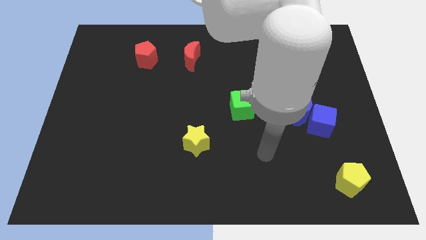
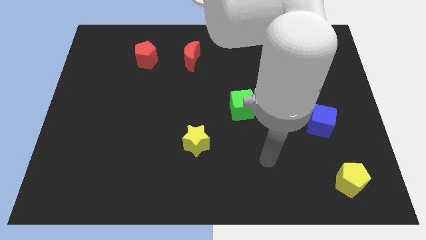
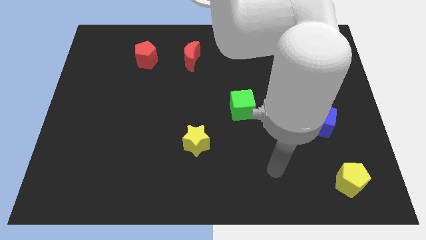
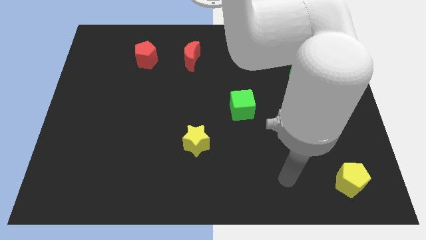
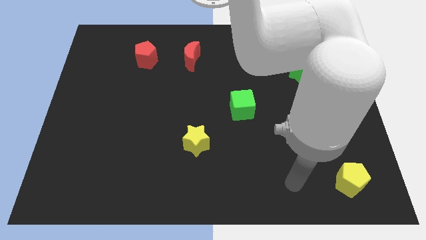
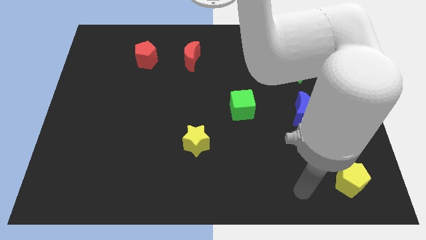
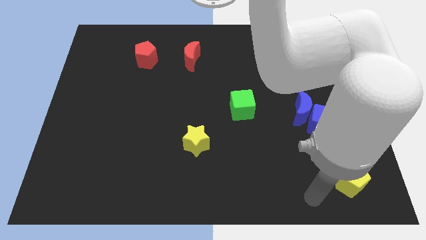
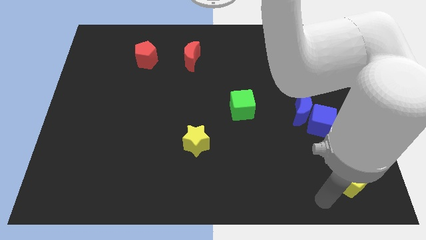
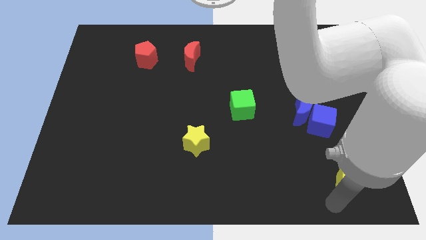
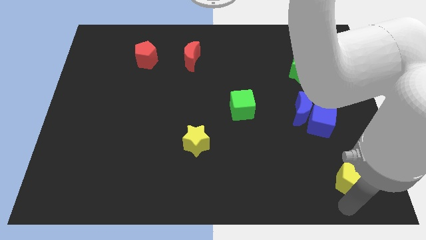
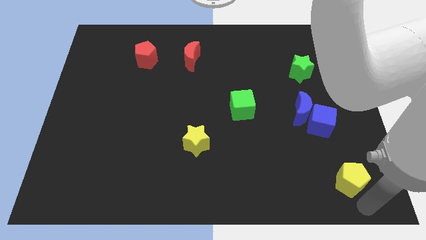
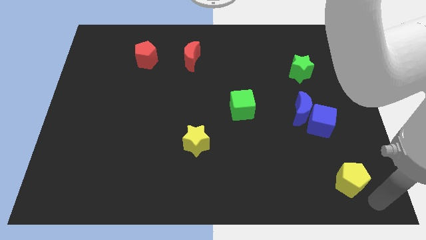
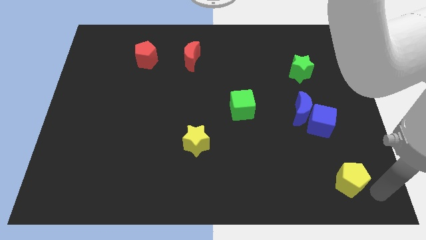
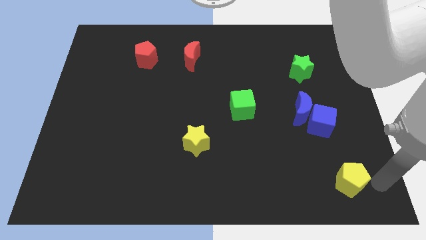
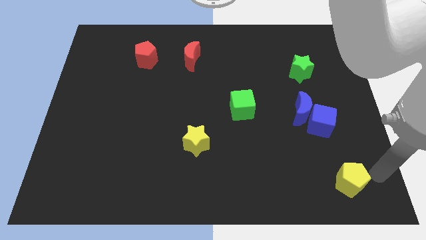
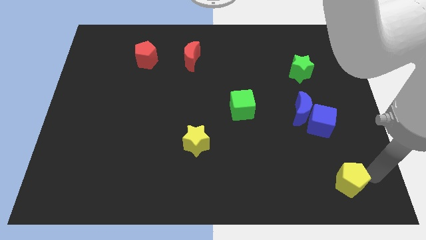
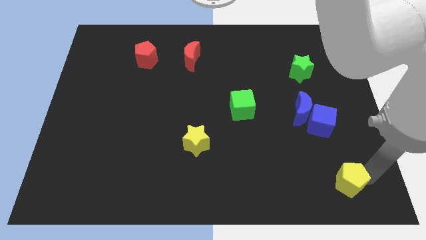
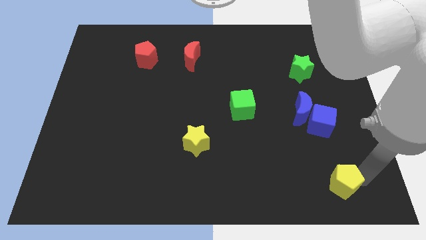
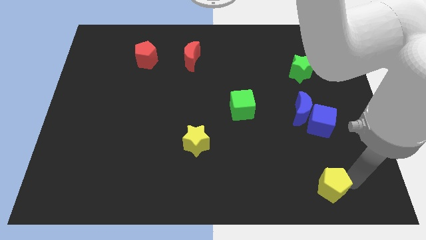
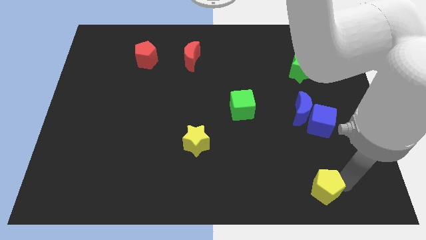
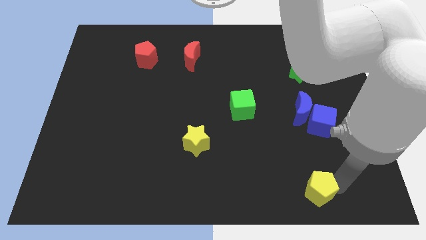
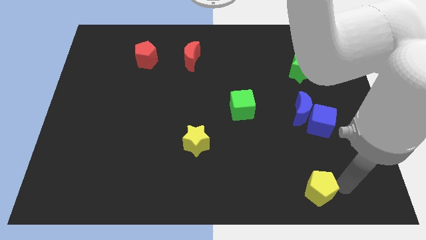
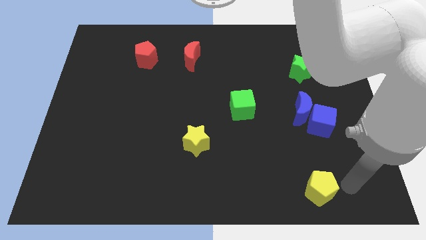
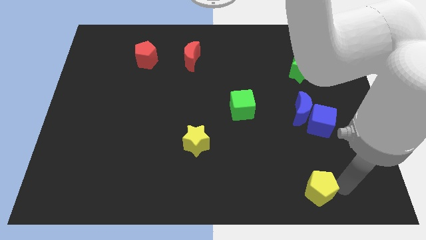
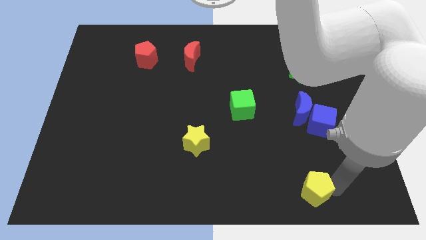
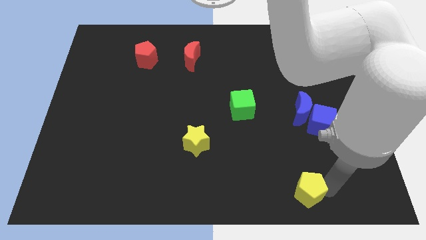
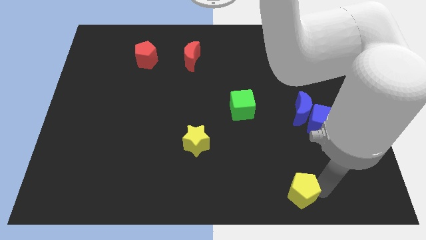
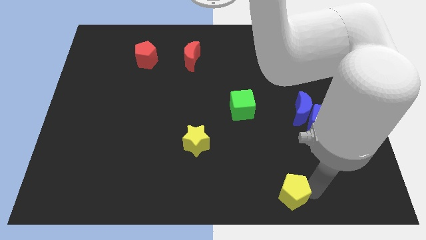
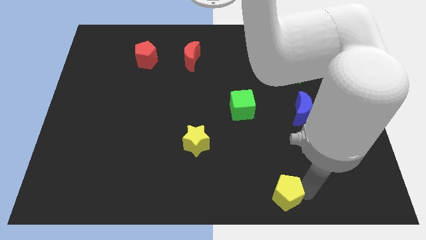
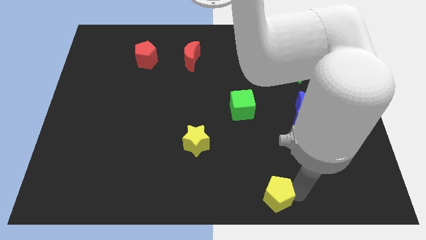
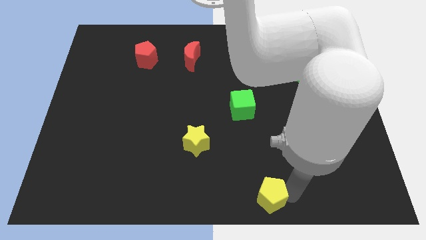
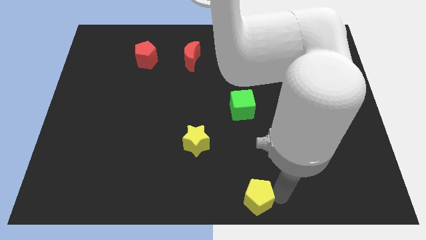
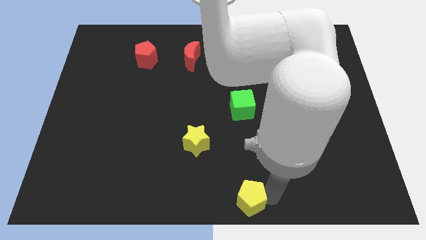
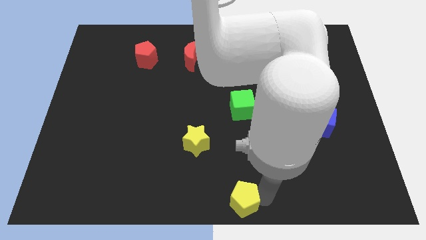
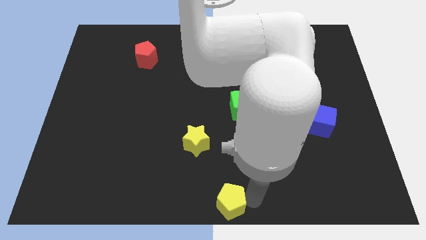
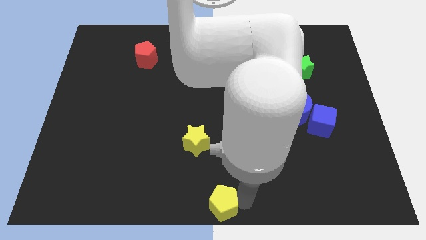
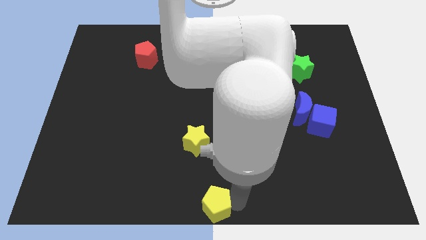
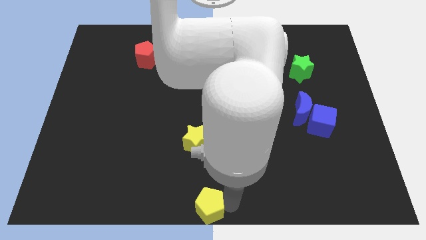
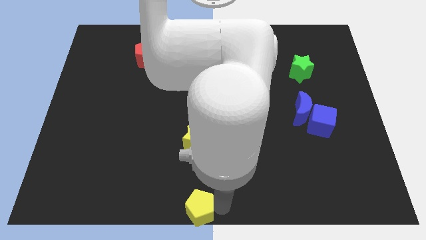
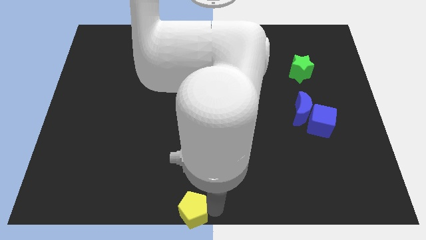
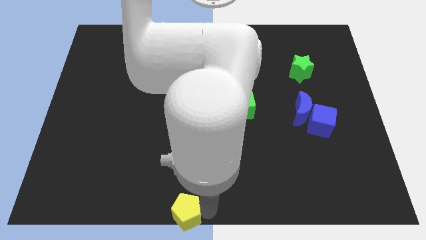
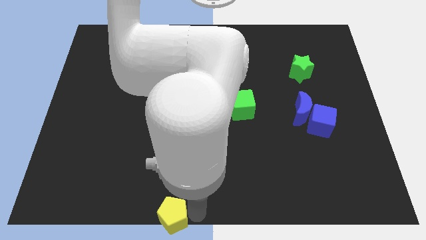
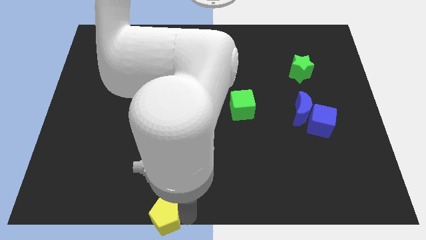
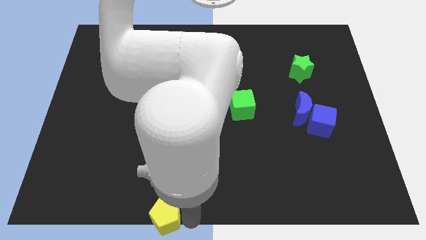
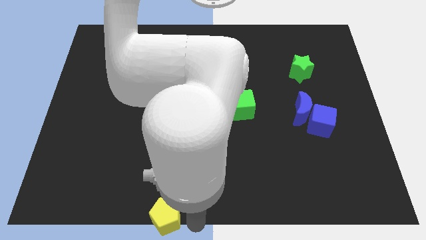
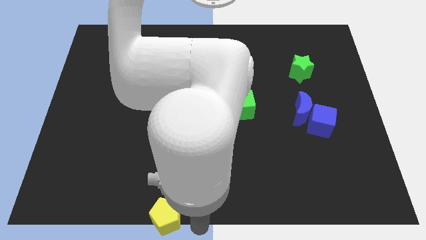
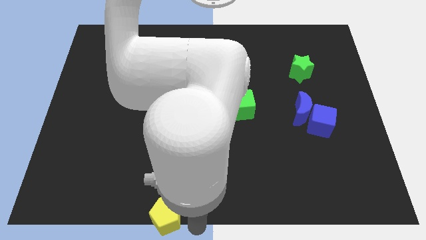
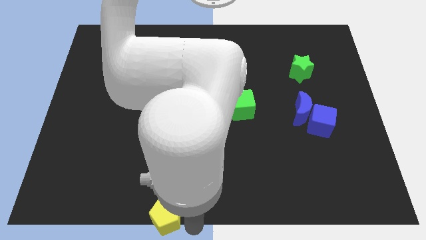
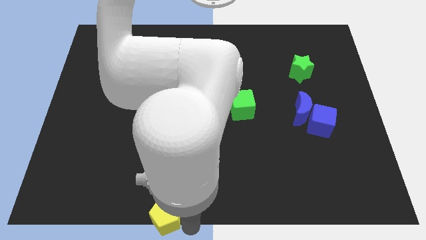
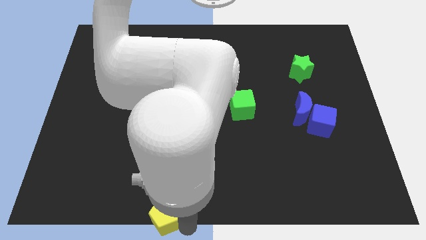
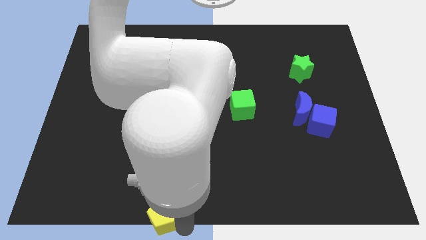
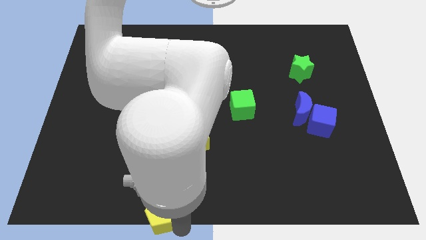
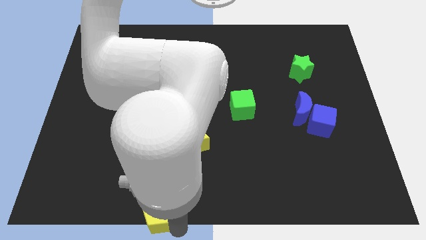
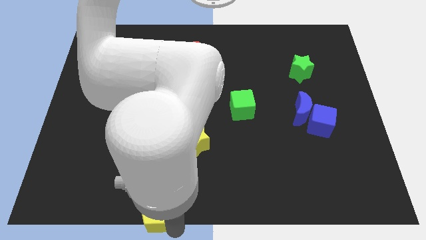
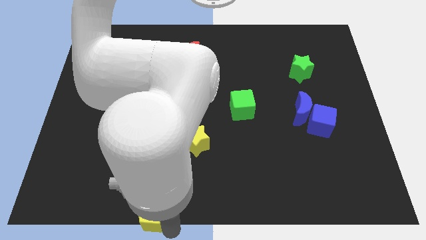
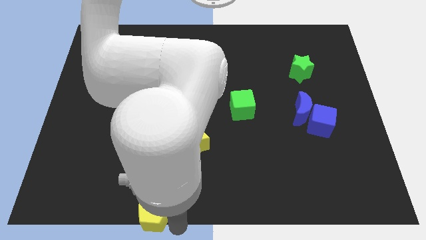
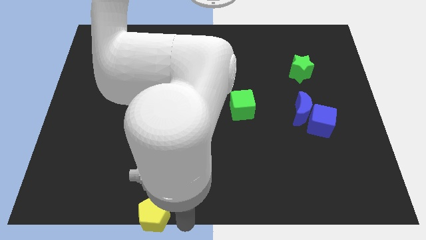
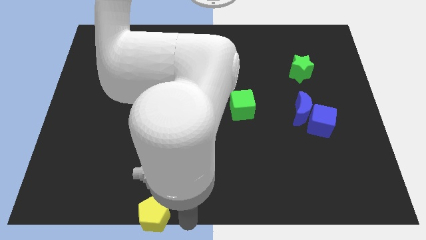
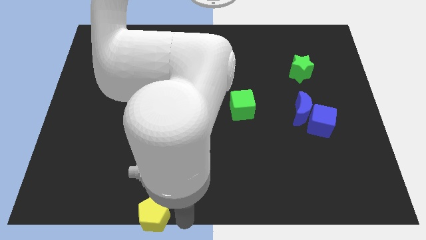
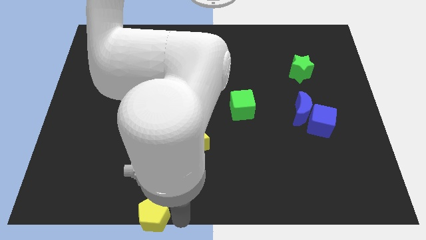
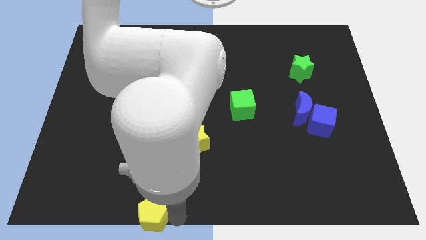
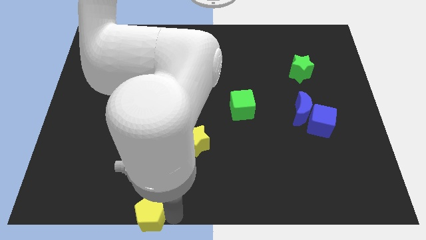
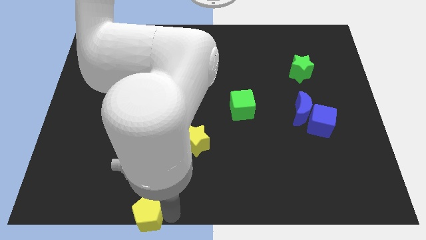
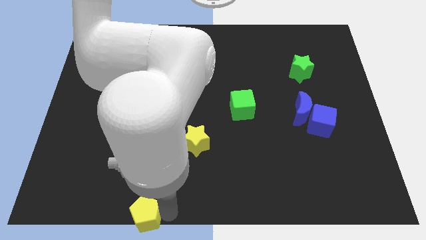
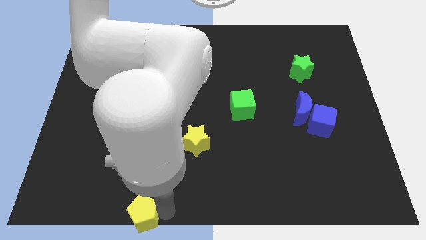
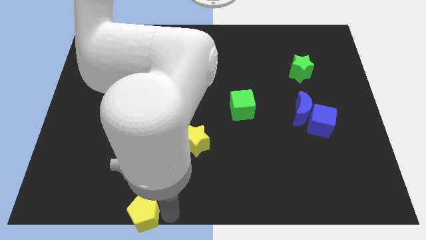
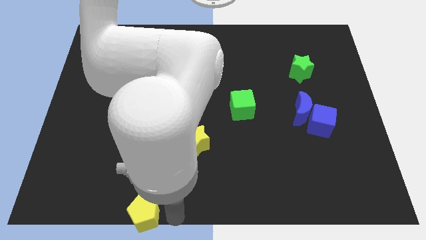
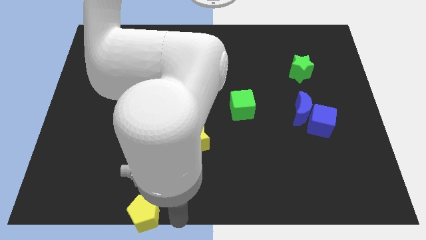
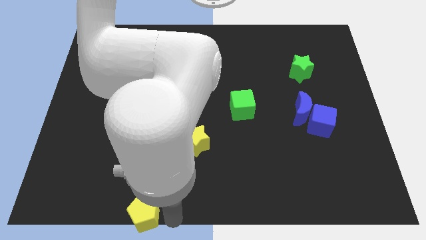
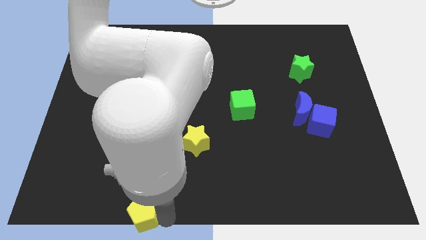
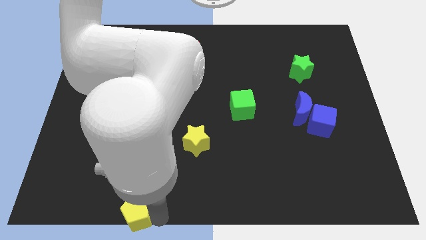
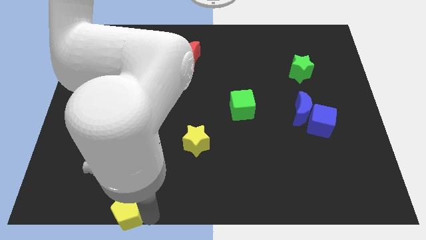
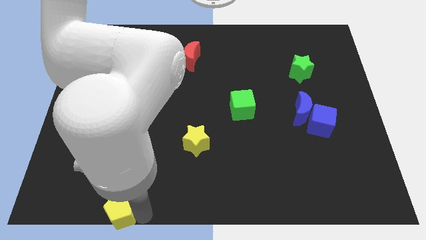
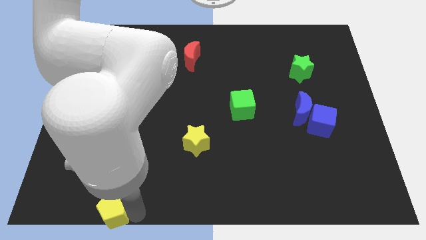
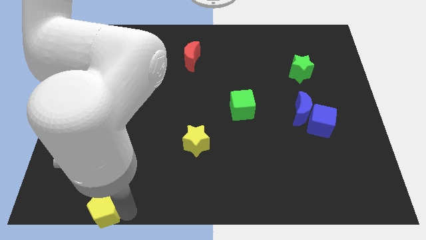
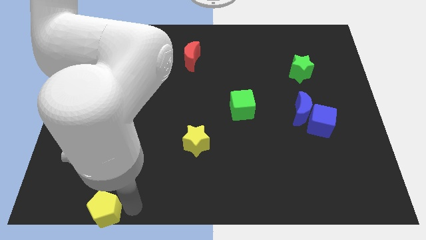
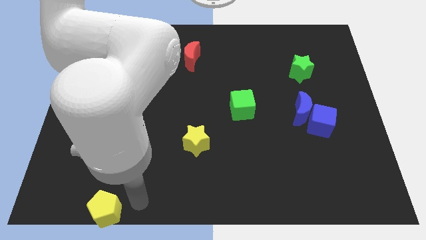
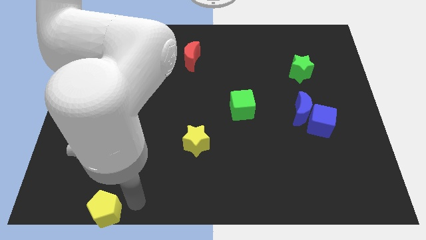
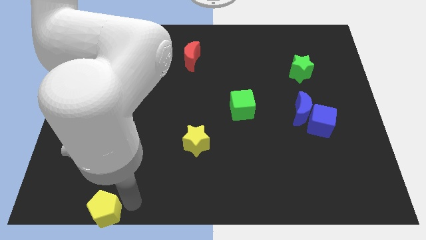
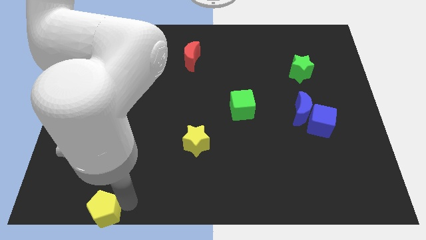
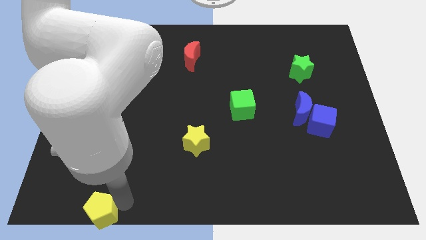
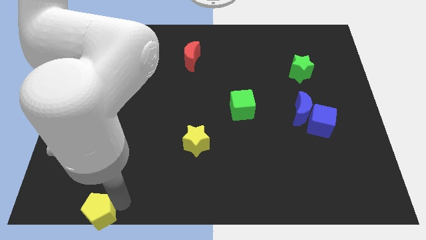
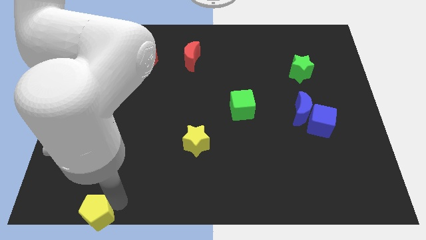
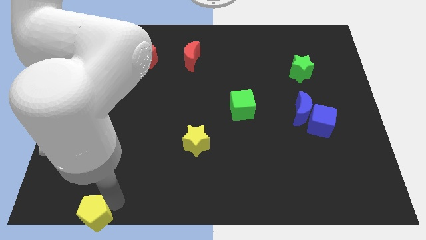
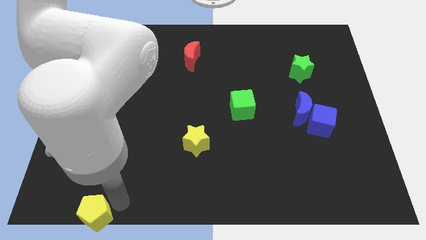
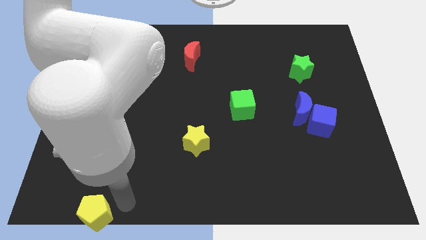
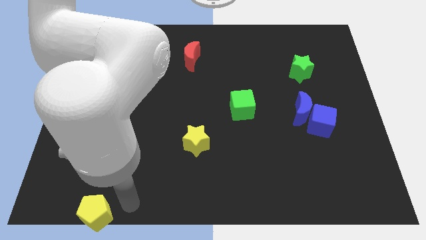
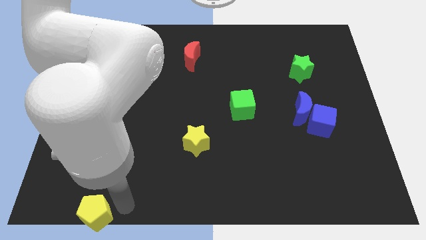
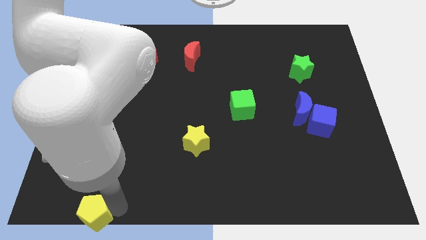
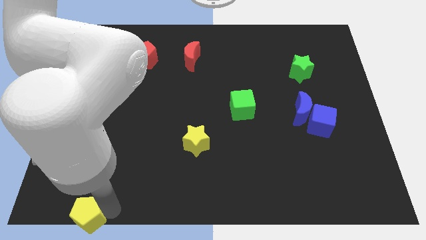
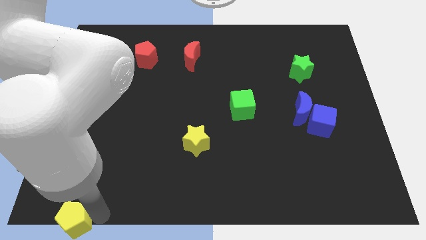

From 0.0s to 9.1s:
put the yellow pentagon to the bottom left corner
